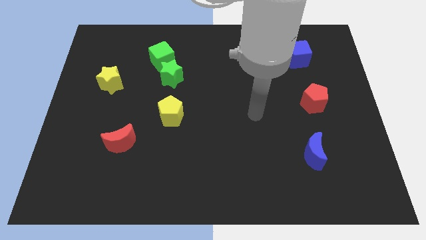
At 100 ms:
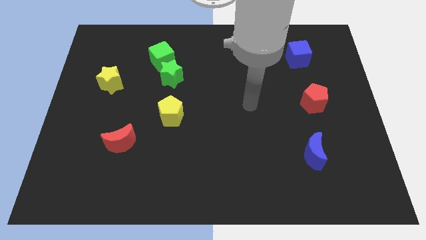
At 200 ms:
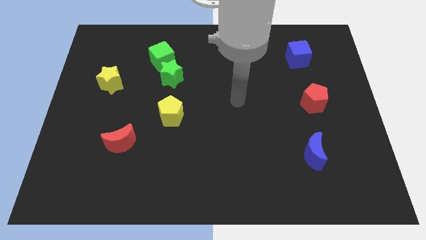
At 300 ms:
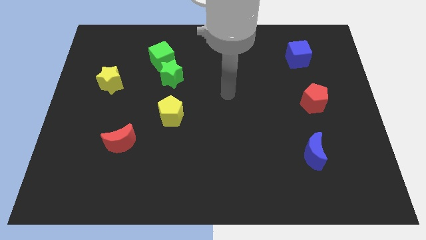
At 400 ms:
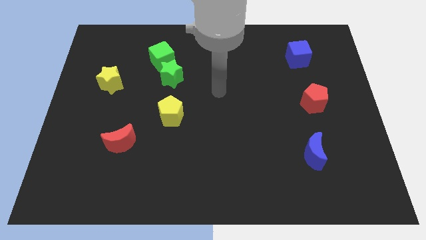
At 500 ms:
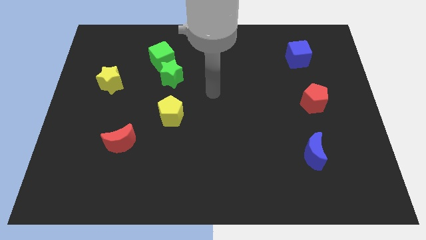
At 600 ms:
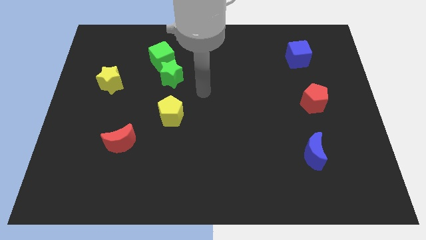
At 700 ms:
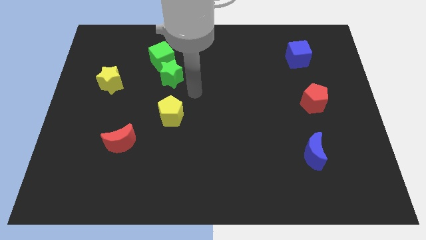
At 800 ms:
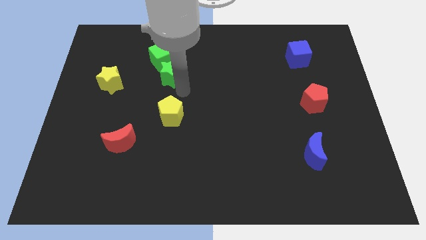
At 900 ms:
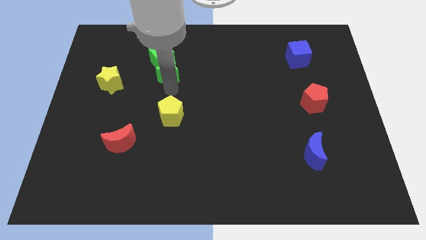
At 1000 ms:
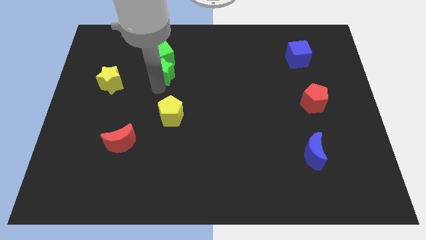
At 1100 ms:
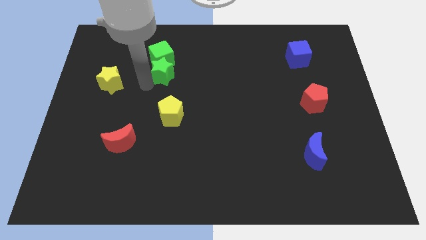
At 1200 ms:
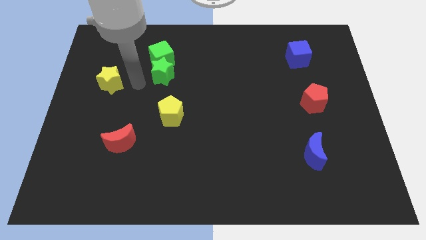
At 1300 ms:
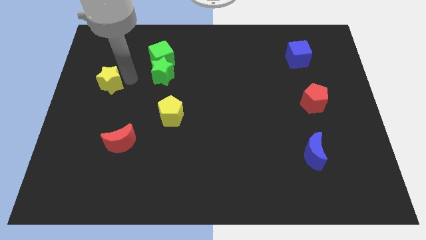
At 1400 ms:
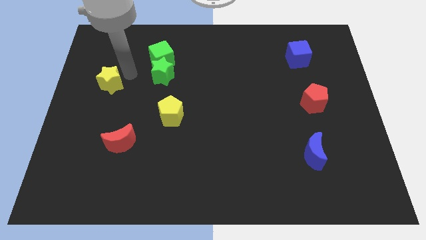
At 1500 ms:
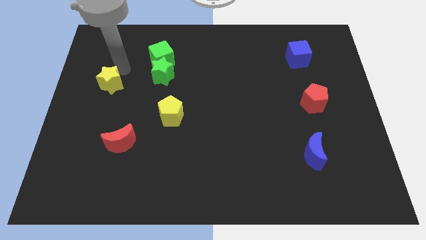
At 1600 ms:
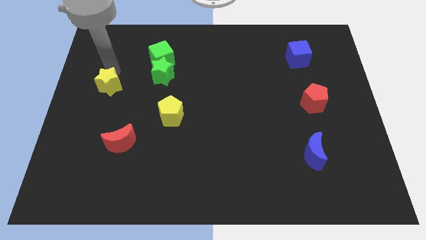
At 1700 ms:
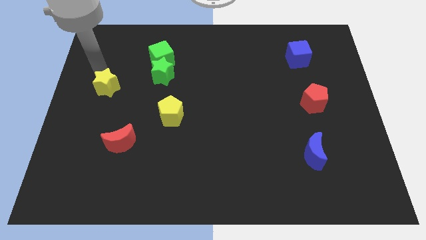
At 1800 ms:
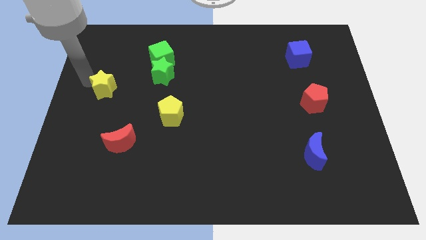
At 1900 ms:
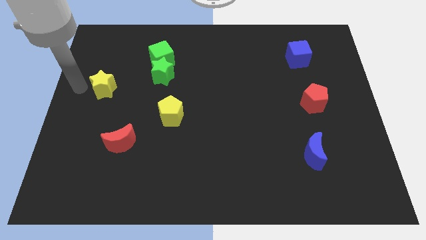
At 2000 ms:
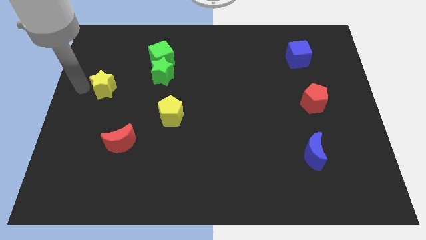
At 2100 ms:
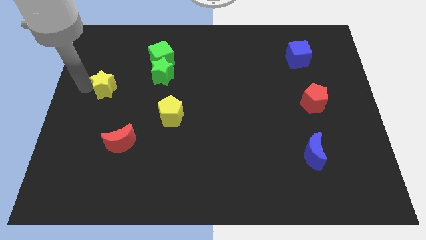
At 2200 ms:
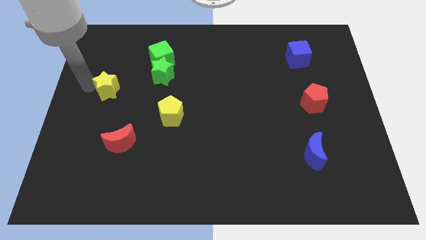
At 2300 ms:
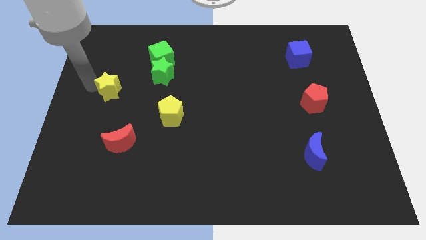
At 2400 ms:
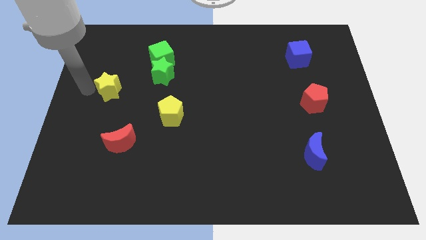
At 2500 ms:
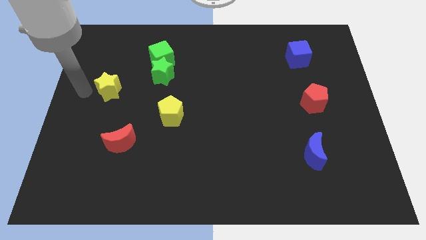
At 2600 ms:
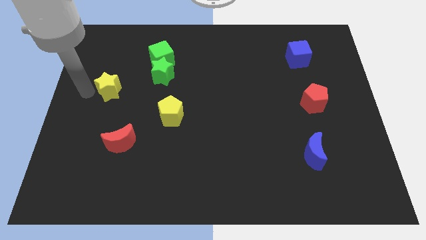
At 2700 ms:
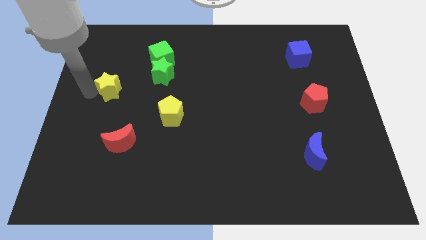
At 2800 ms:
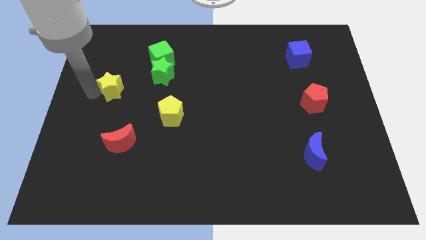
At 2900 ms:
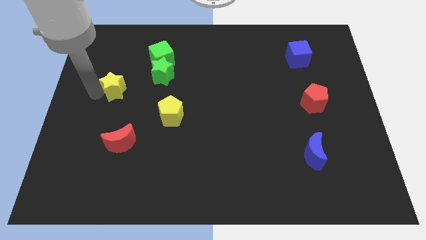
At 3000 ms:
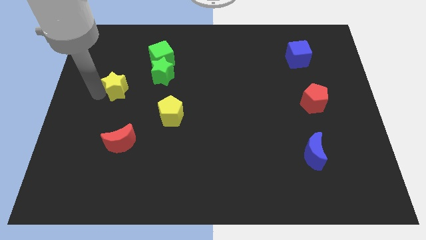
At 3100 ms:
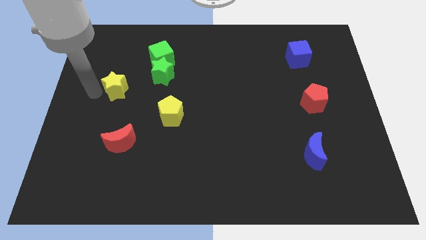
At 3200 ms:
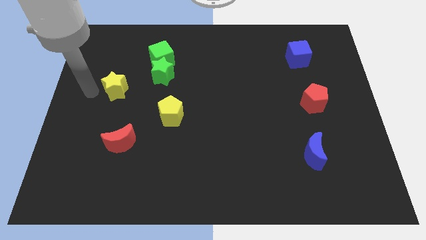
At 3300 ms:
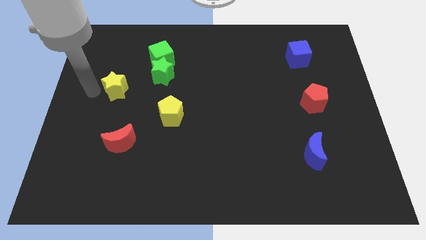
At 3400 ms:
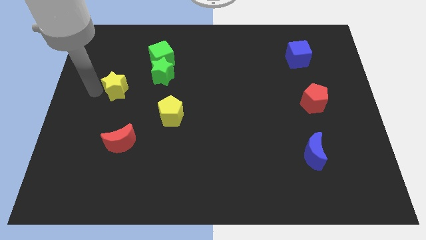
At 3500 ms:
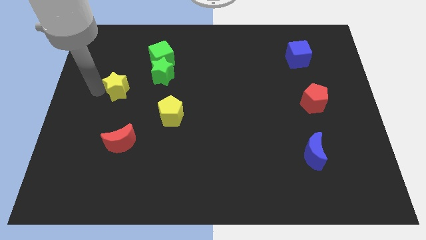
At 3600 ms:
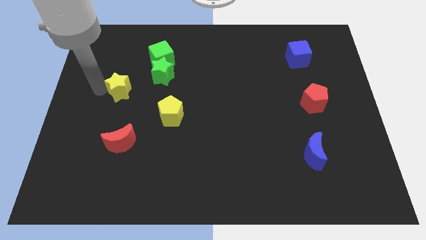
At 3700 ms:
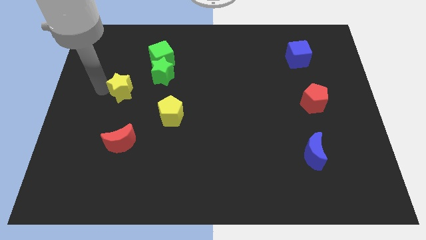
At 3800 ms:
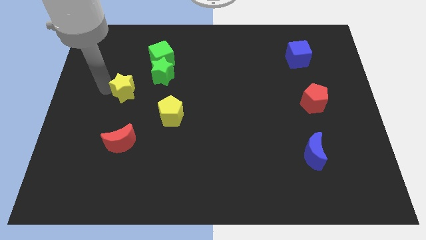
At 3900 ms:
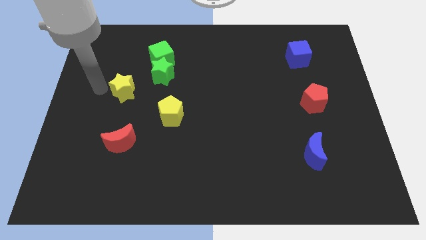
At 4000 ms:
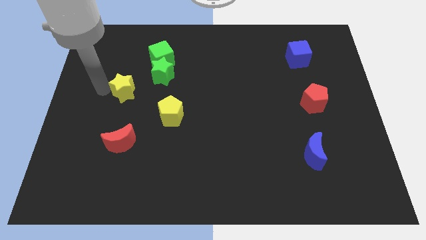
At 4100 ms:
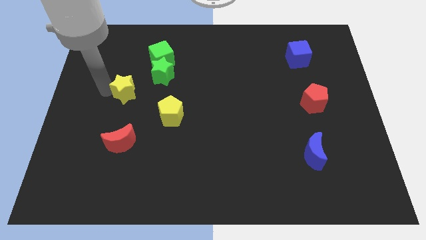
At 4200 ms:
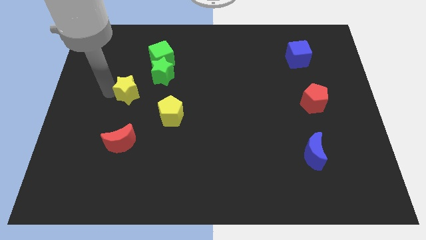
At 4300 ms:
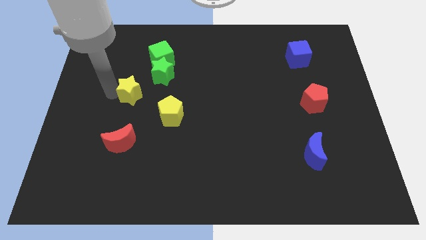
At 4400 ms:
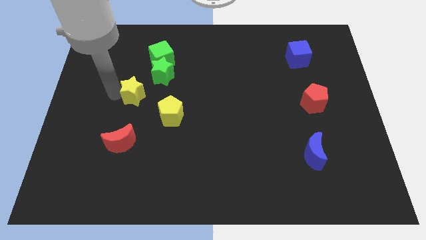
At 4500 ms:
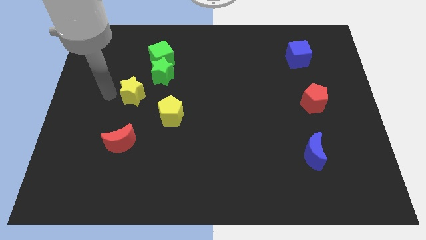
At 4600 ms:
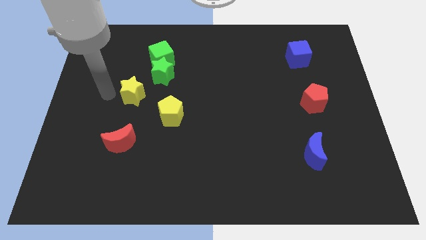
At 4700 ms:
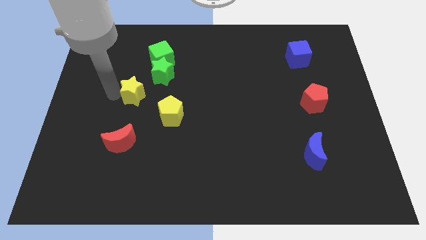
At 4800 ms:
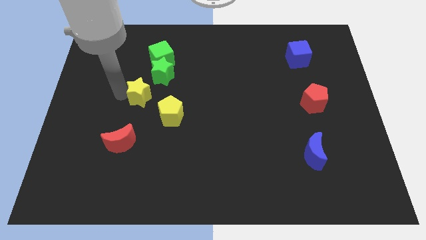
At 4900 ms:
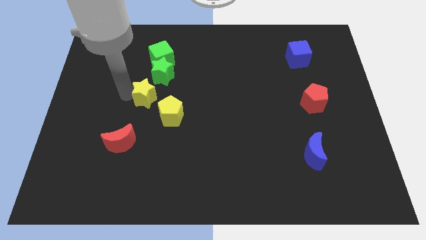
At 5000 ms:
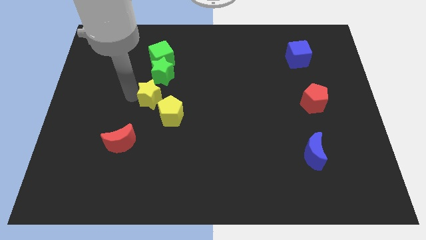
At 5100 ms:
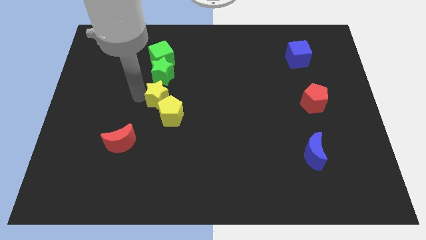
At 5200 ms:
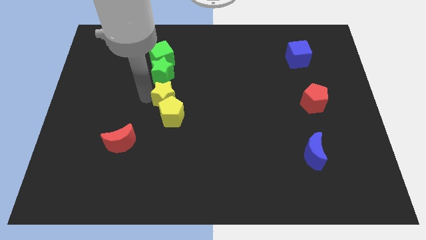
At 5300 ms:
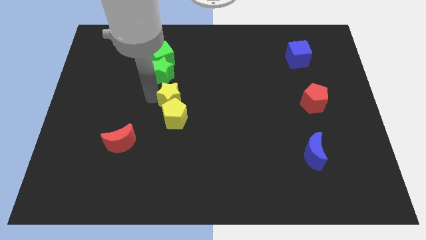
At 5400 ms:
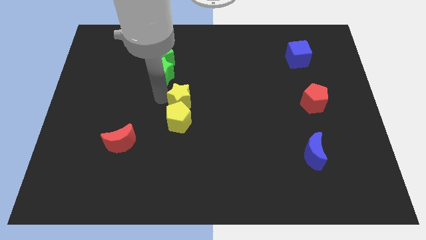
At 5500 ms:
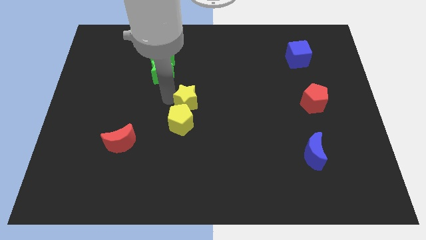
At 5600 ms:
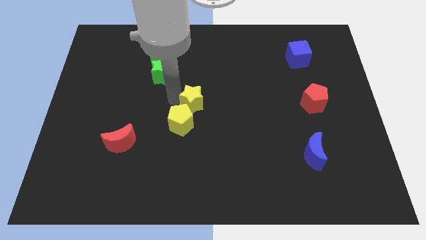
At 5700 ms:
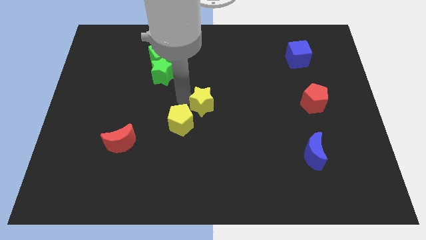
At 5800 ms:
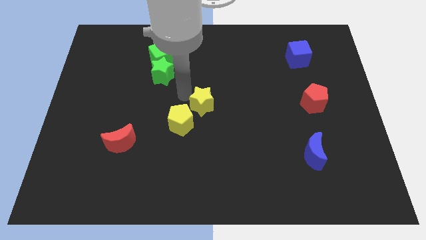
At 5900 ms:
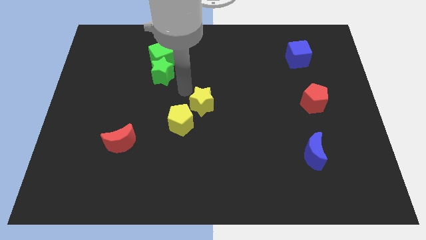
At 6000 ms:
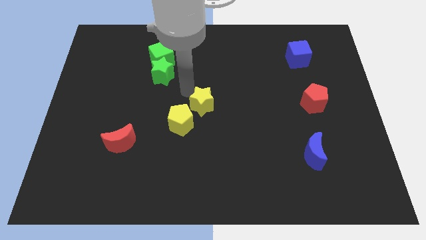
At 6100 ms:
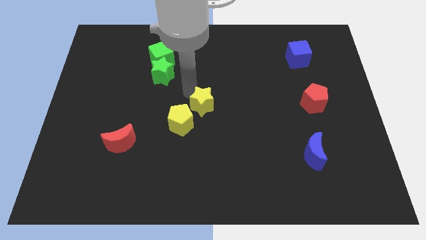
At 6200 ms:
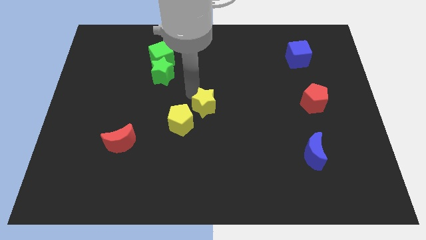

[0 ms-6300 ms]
move the yellow star to the right of the yellow pentagon

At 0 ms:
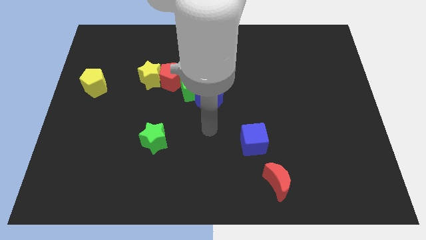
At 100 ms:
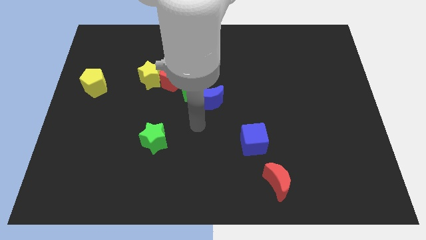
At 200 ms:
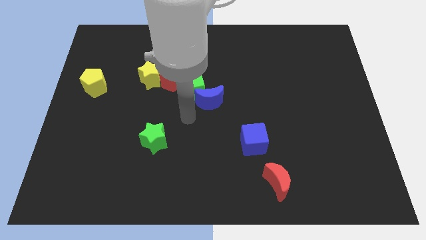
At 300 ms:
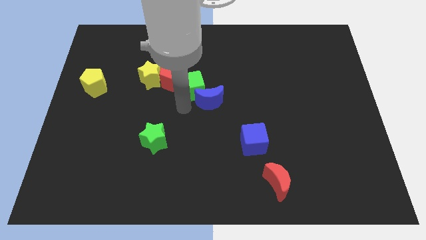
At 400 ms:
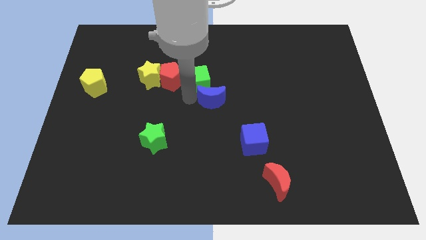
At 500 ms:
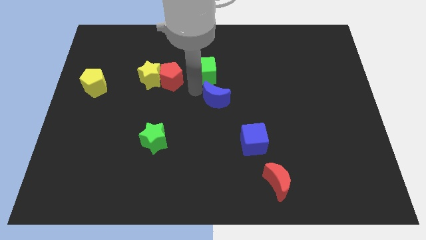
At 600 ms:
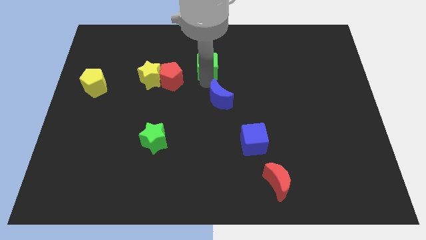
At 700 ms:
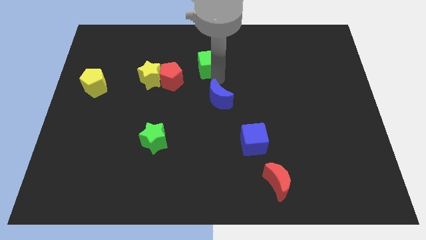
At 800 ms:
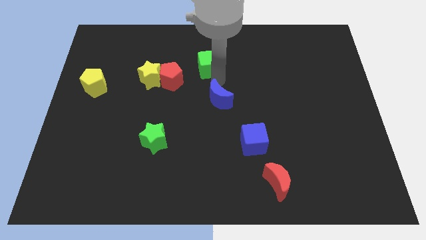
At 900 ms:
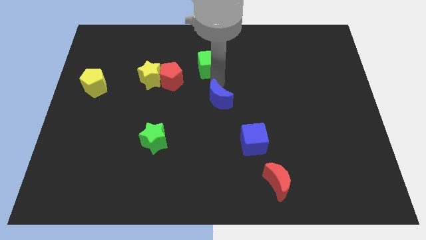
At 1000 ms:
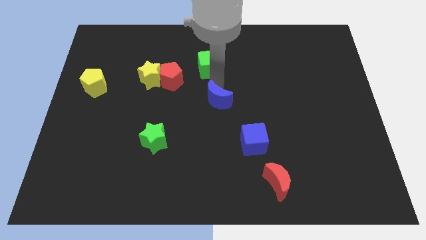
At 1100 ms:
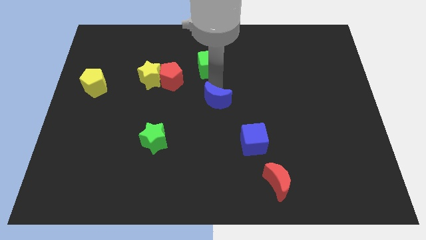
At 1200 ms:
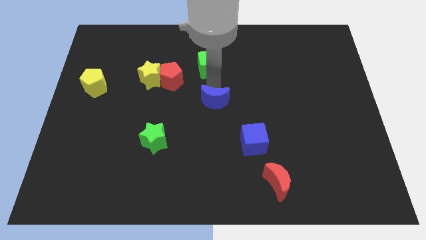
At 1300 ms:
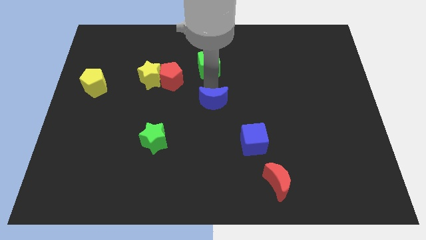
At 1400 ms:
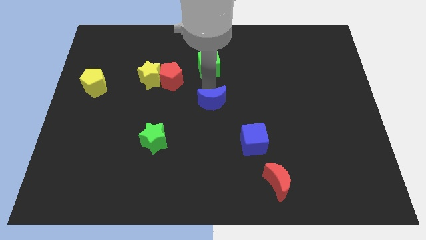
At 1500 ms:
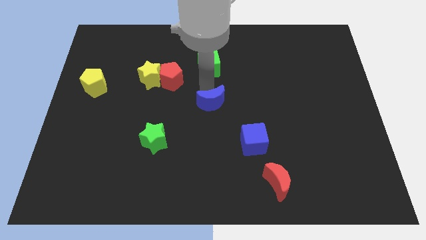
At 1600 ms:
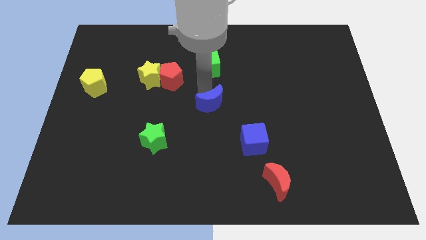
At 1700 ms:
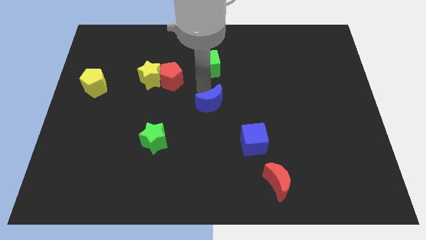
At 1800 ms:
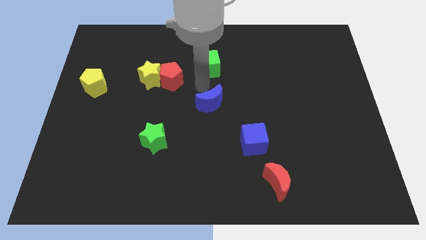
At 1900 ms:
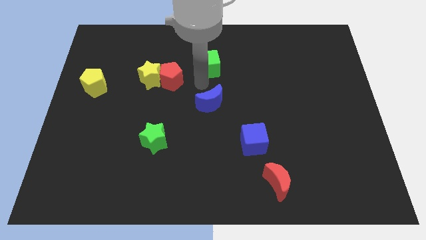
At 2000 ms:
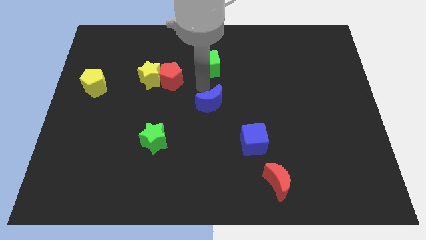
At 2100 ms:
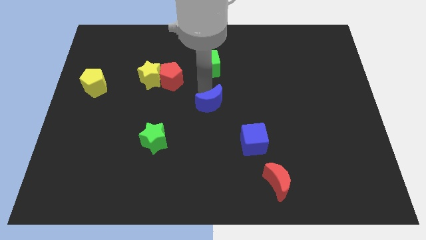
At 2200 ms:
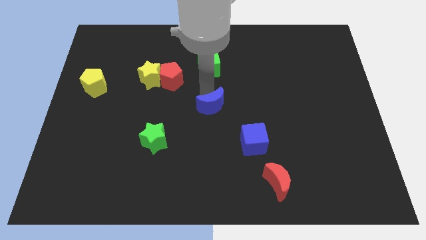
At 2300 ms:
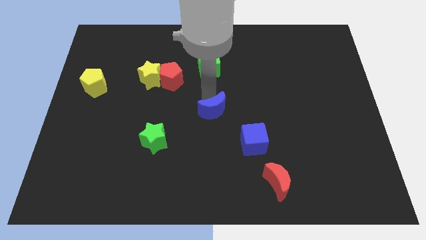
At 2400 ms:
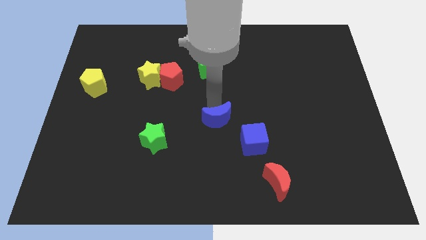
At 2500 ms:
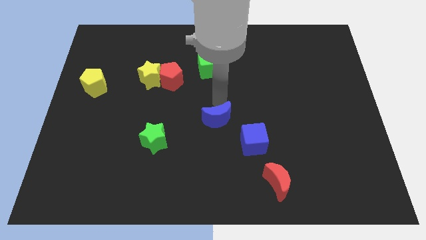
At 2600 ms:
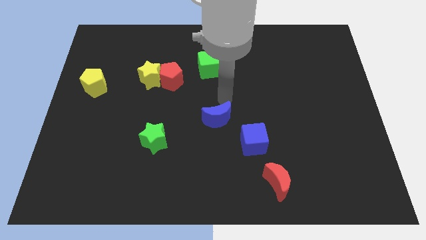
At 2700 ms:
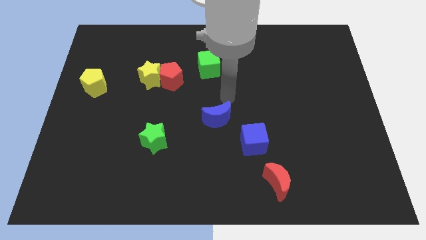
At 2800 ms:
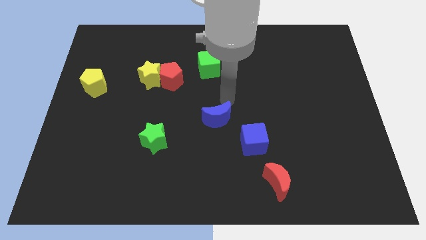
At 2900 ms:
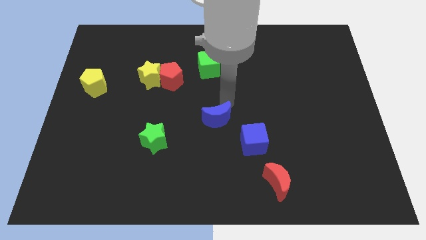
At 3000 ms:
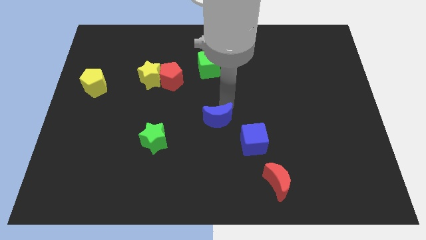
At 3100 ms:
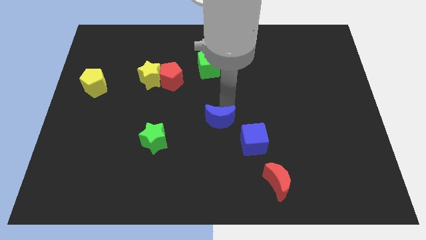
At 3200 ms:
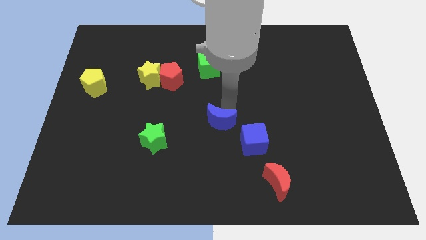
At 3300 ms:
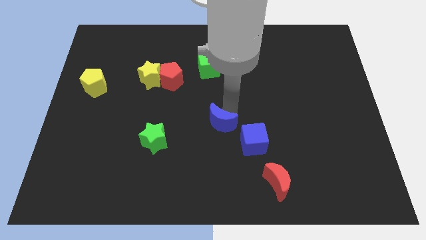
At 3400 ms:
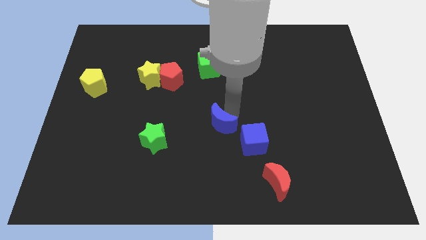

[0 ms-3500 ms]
slide the blue moon to the left of the blue cube
